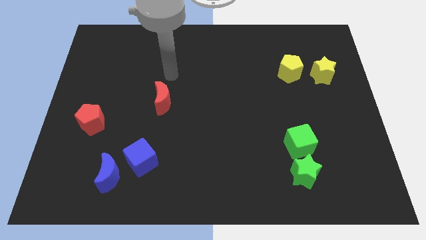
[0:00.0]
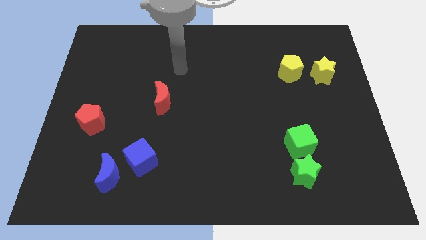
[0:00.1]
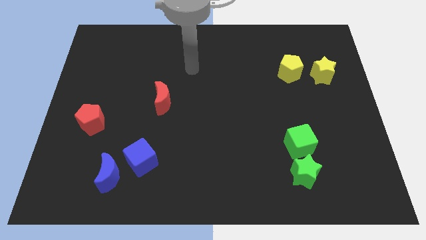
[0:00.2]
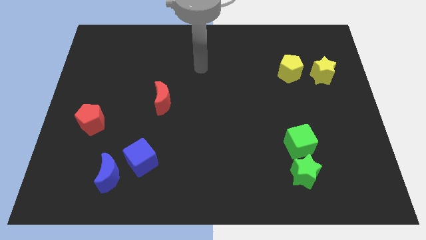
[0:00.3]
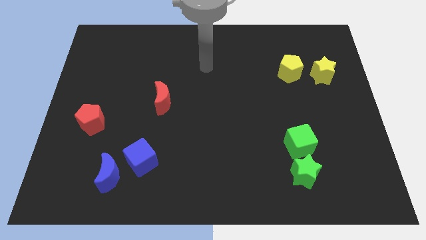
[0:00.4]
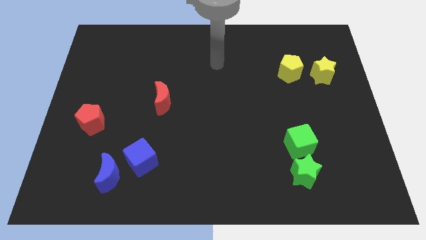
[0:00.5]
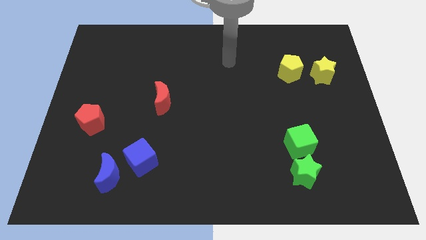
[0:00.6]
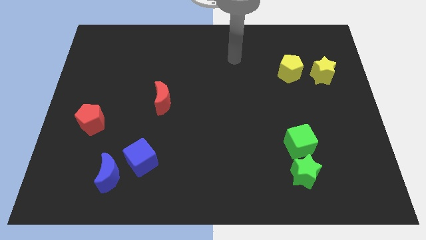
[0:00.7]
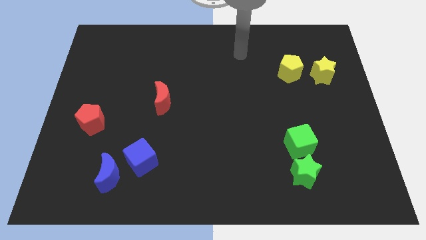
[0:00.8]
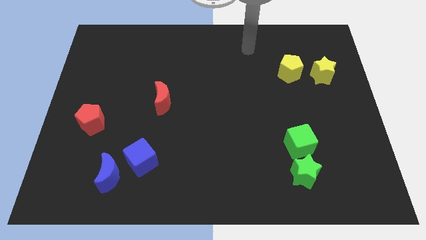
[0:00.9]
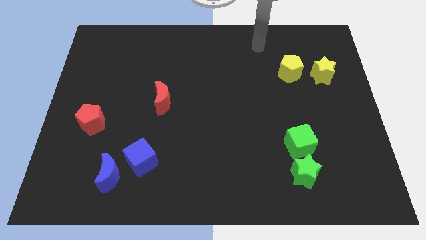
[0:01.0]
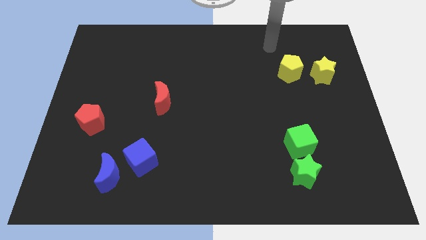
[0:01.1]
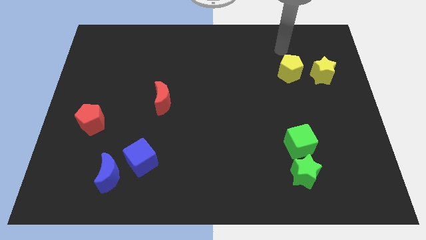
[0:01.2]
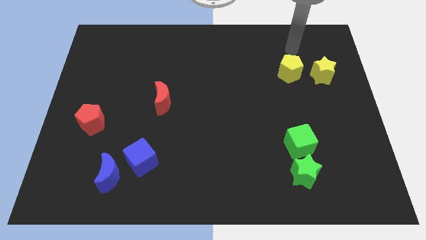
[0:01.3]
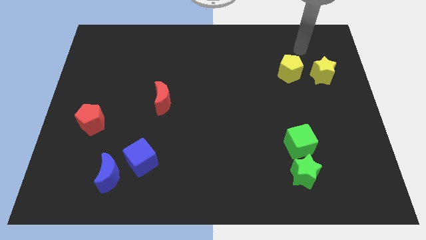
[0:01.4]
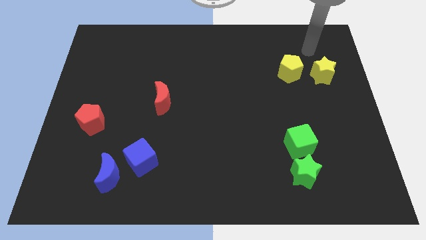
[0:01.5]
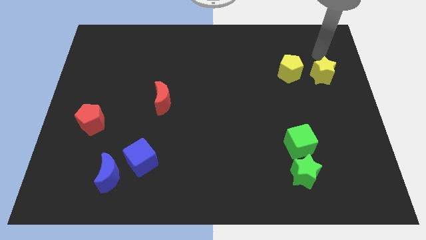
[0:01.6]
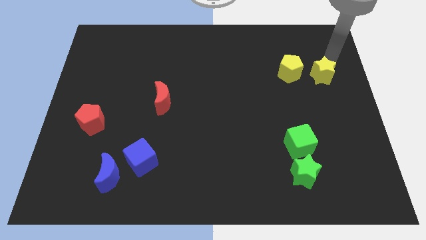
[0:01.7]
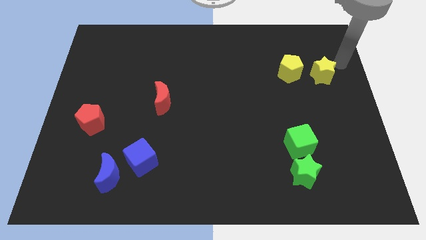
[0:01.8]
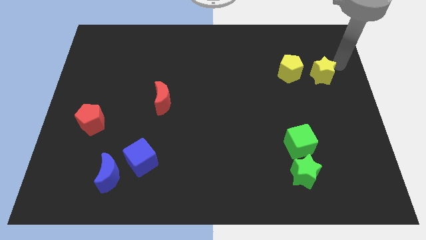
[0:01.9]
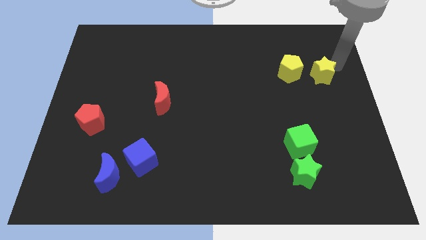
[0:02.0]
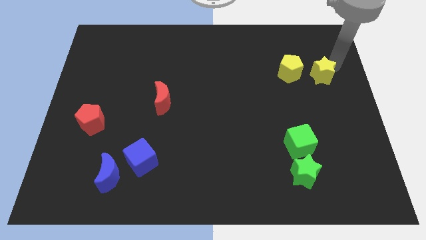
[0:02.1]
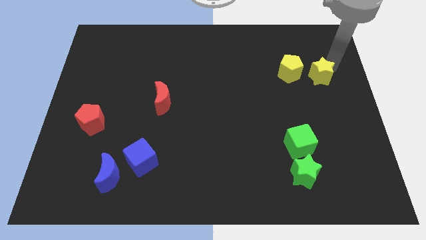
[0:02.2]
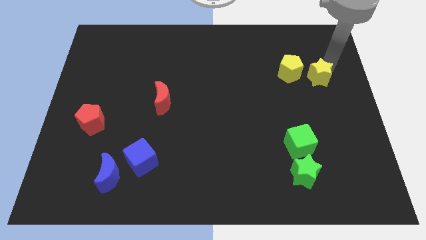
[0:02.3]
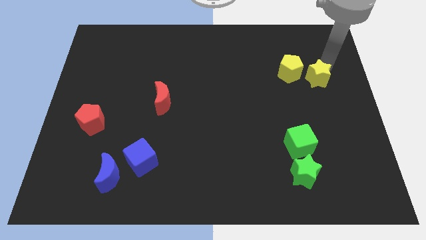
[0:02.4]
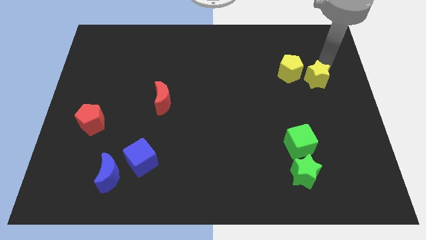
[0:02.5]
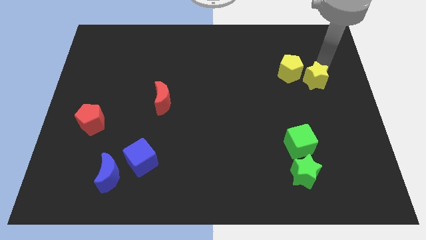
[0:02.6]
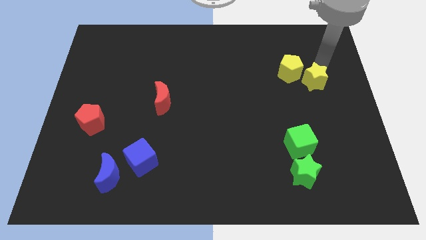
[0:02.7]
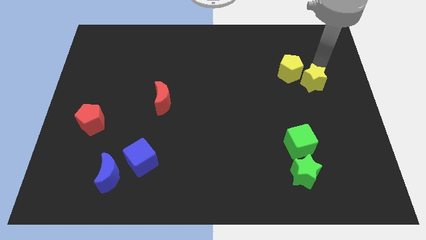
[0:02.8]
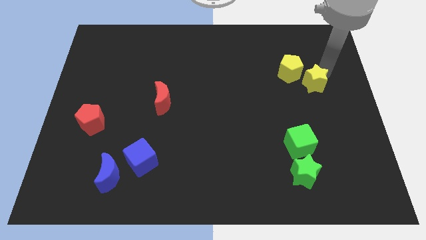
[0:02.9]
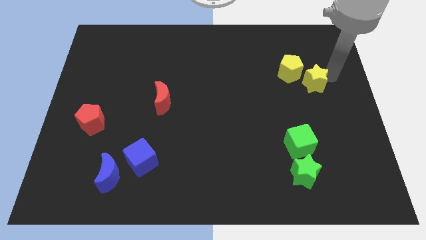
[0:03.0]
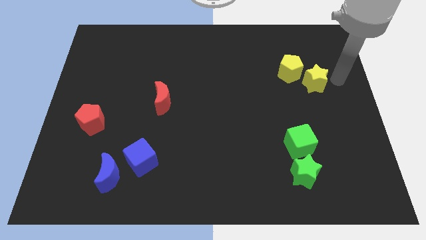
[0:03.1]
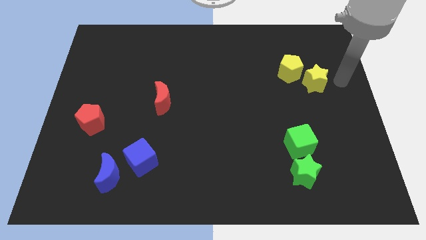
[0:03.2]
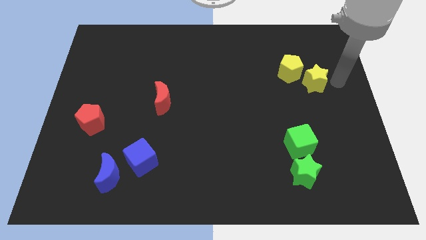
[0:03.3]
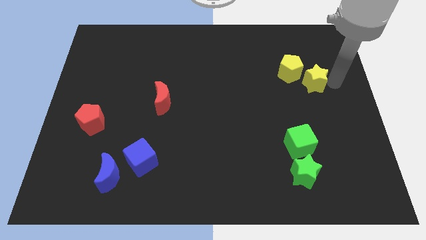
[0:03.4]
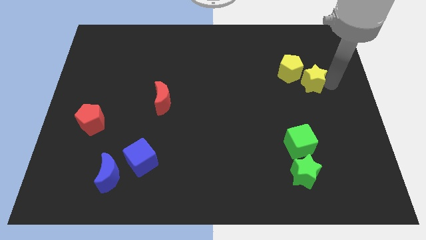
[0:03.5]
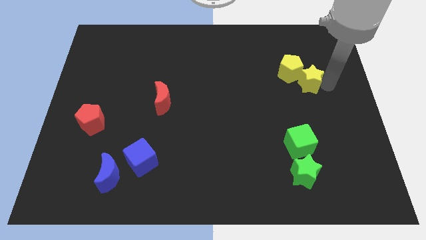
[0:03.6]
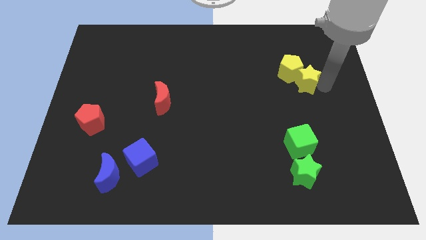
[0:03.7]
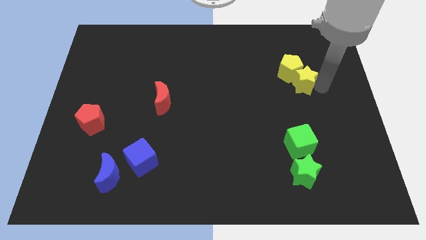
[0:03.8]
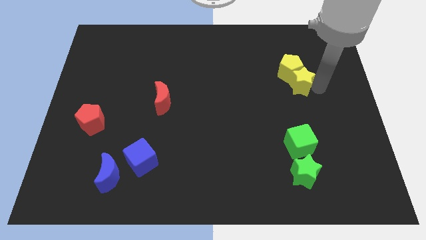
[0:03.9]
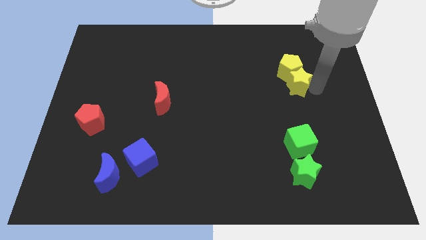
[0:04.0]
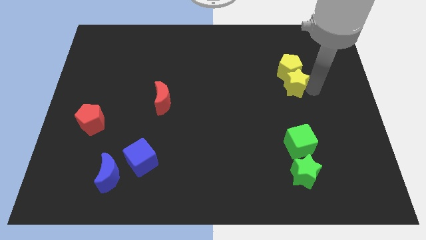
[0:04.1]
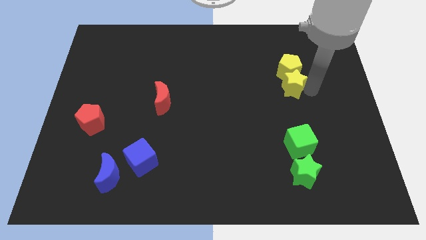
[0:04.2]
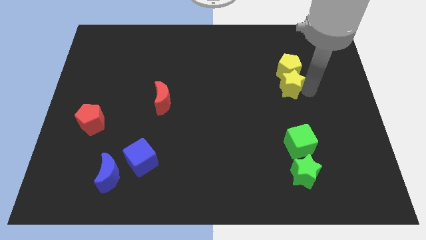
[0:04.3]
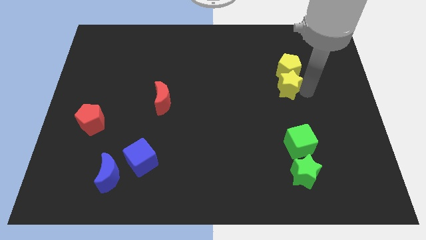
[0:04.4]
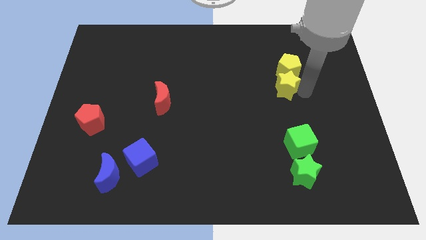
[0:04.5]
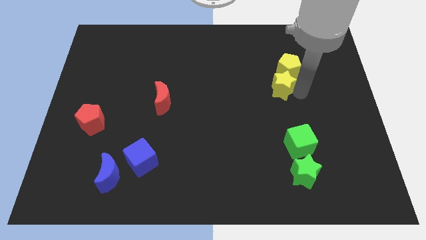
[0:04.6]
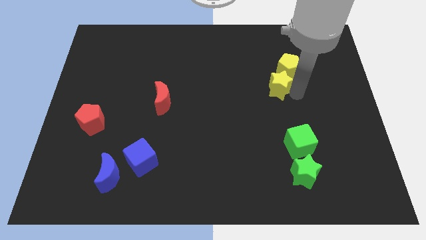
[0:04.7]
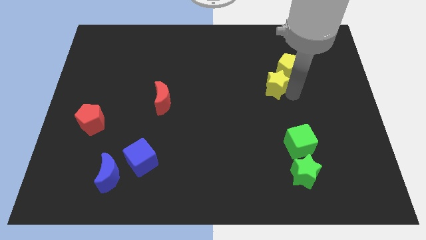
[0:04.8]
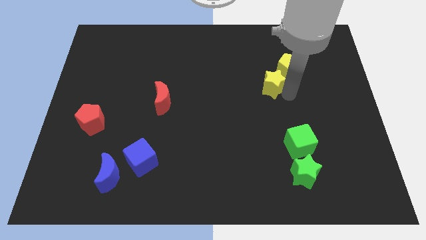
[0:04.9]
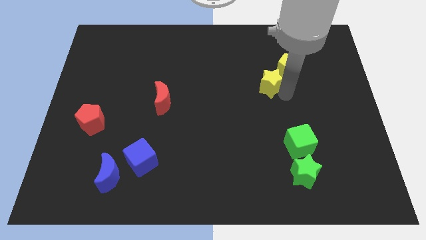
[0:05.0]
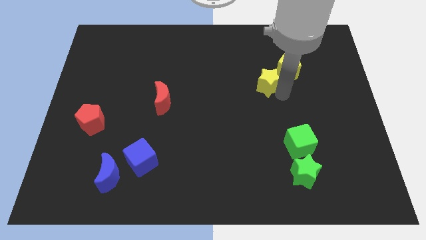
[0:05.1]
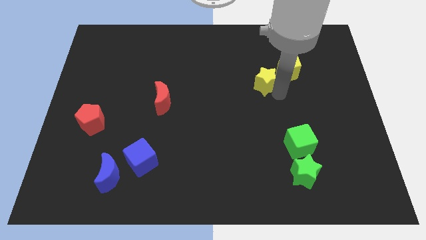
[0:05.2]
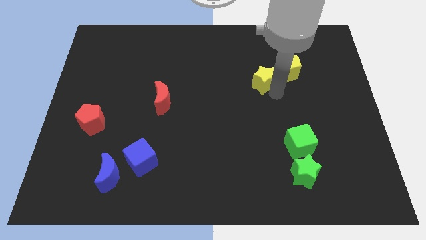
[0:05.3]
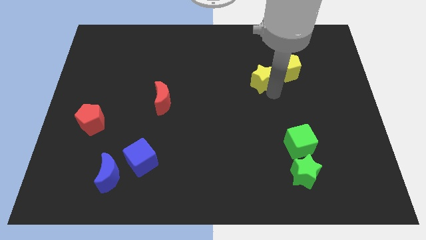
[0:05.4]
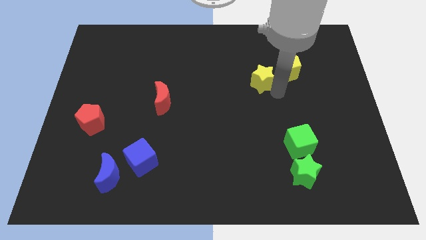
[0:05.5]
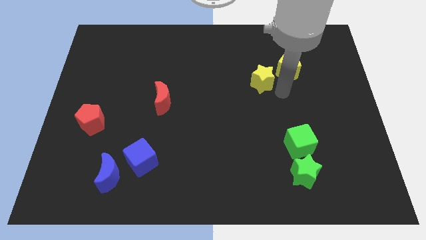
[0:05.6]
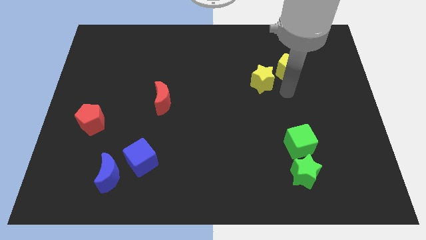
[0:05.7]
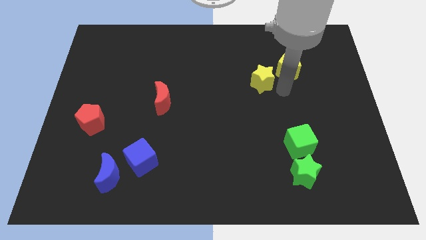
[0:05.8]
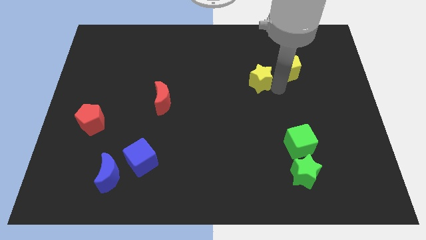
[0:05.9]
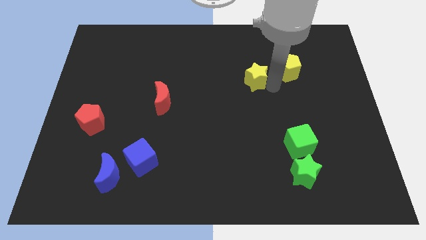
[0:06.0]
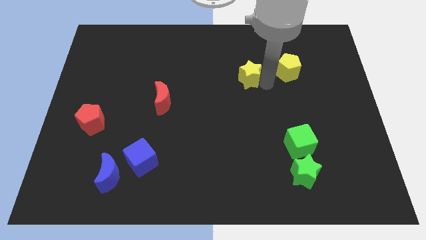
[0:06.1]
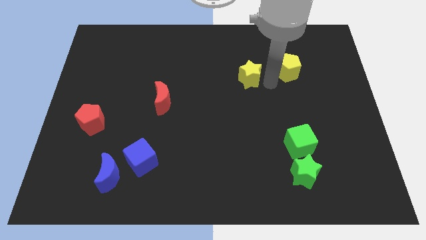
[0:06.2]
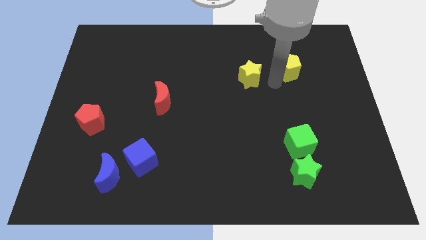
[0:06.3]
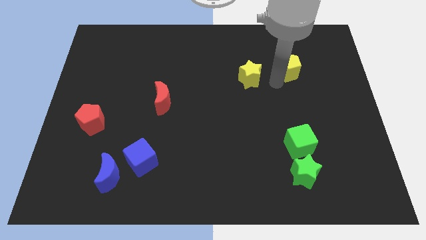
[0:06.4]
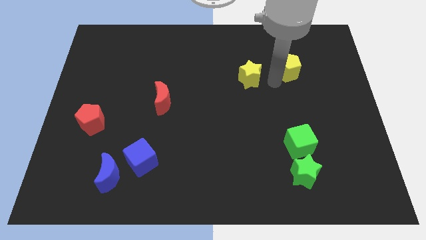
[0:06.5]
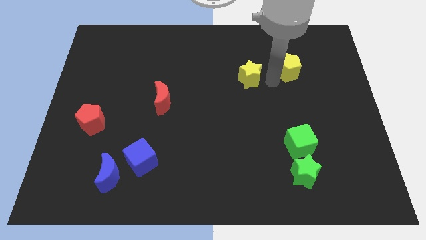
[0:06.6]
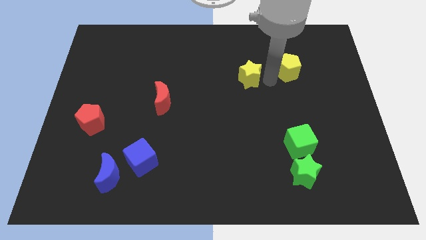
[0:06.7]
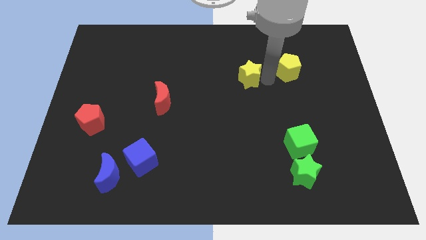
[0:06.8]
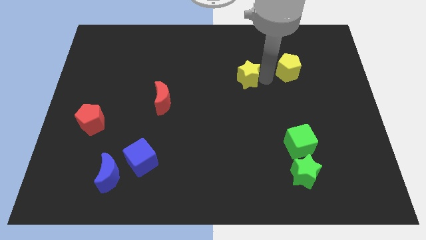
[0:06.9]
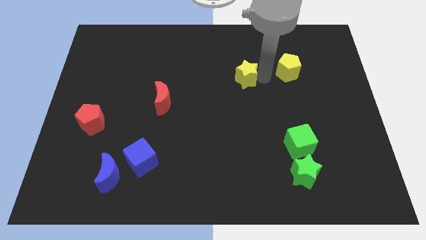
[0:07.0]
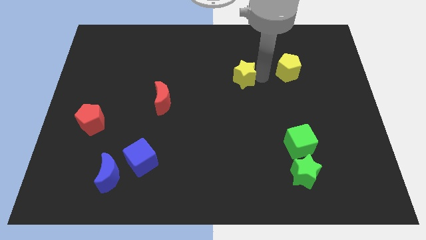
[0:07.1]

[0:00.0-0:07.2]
move the yellow star to the left

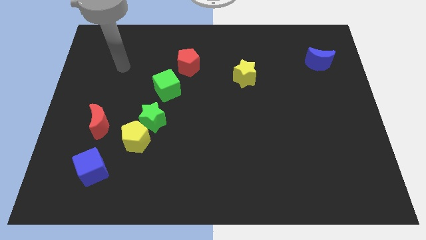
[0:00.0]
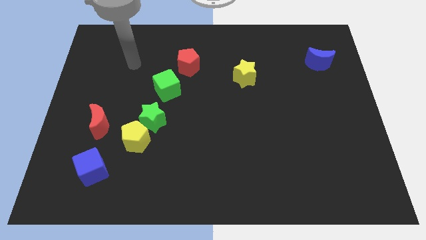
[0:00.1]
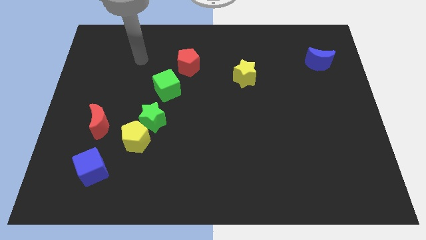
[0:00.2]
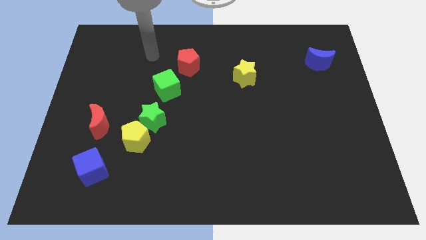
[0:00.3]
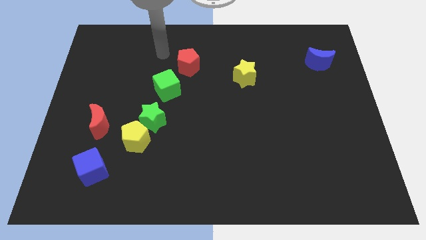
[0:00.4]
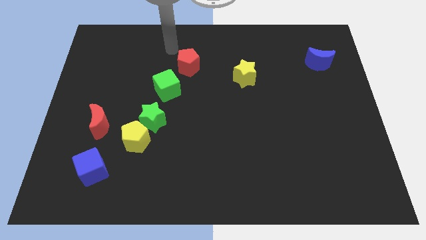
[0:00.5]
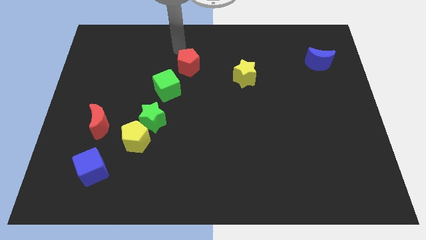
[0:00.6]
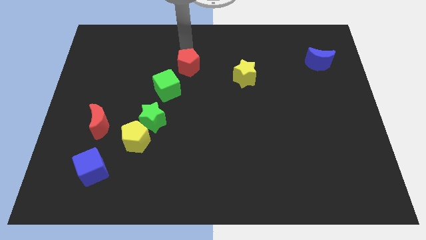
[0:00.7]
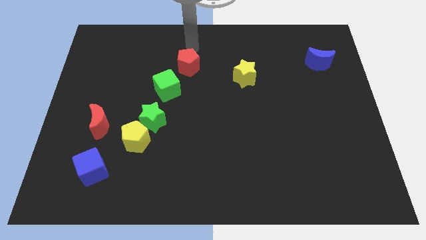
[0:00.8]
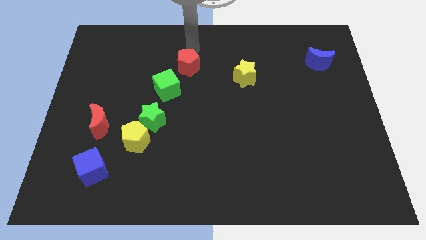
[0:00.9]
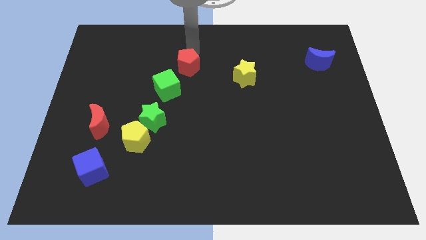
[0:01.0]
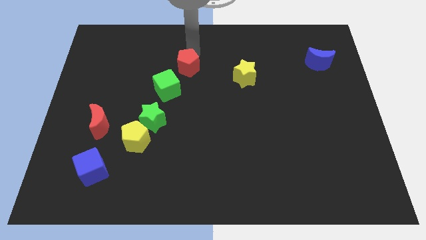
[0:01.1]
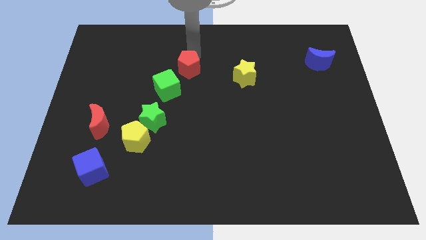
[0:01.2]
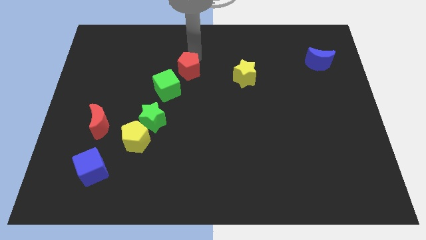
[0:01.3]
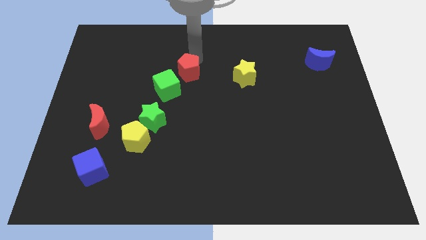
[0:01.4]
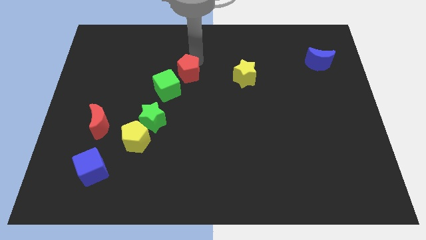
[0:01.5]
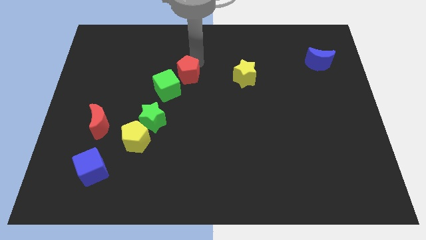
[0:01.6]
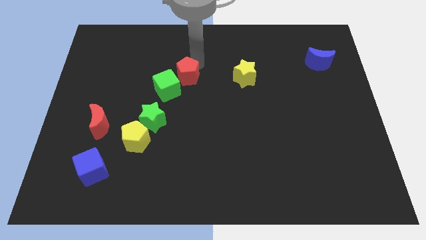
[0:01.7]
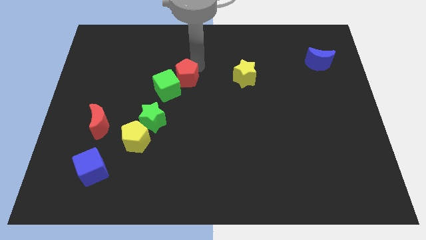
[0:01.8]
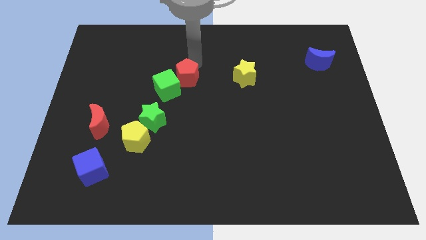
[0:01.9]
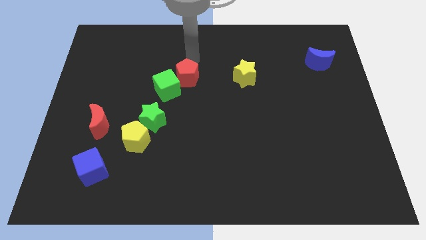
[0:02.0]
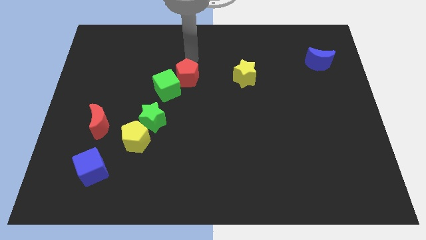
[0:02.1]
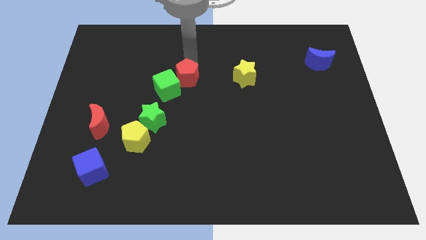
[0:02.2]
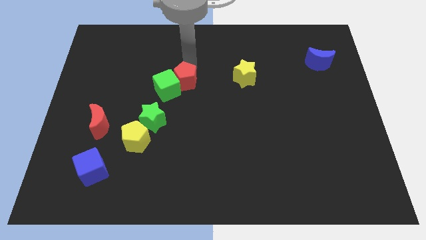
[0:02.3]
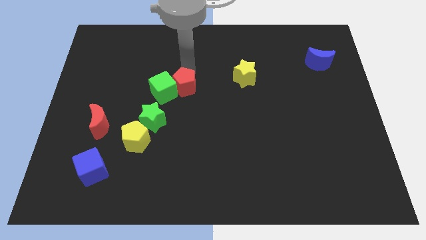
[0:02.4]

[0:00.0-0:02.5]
slightly move the red pentagon down
